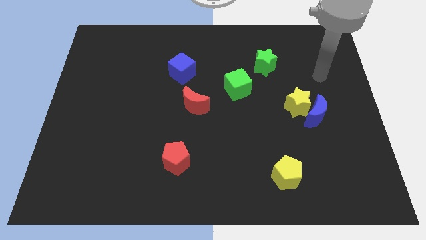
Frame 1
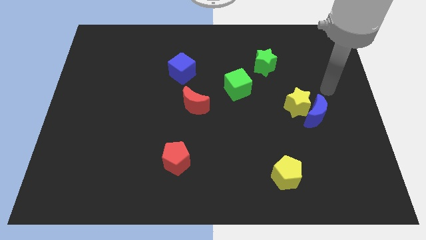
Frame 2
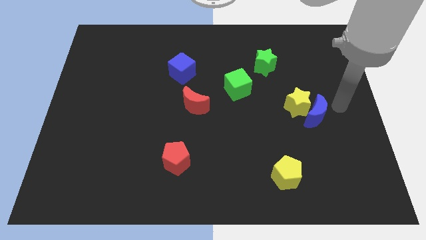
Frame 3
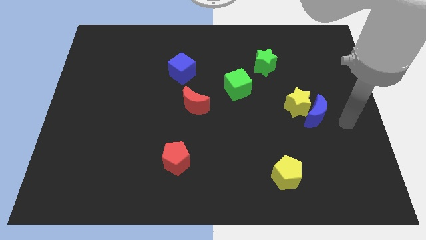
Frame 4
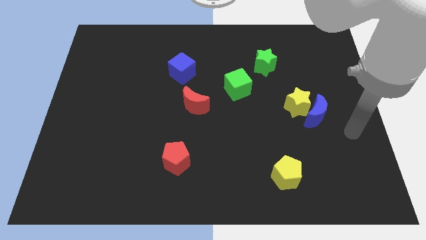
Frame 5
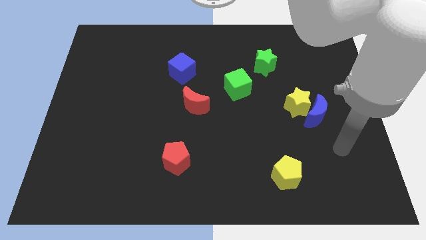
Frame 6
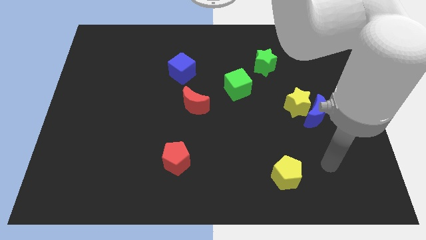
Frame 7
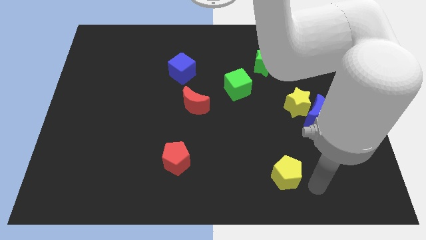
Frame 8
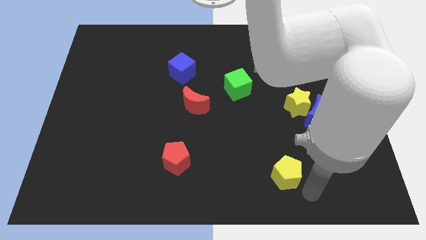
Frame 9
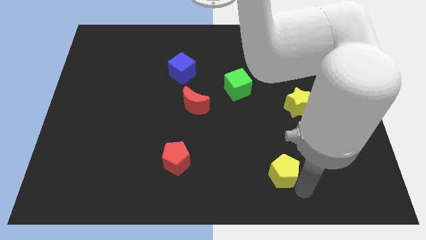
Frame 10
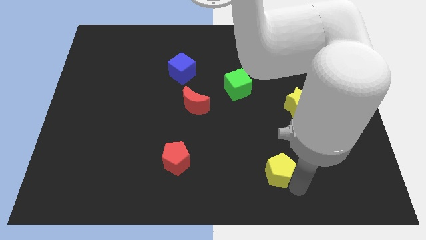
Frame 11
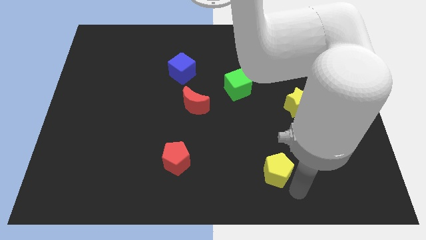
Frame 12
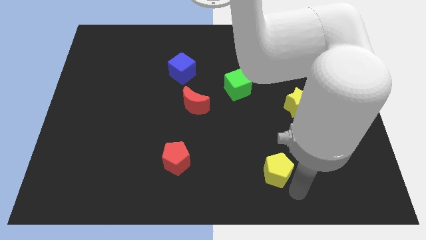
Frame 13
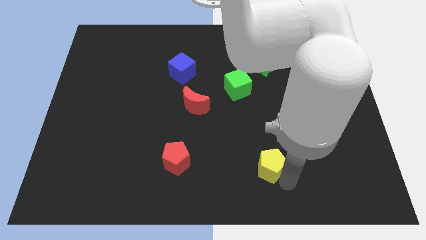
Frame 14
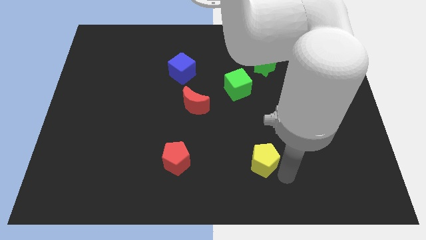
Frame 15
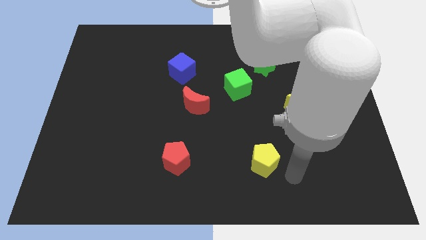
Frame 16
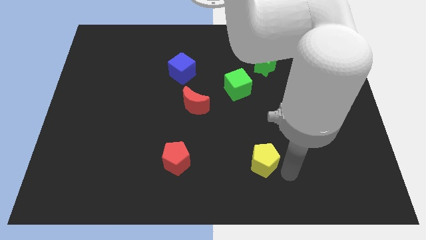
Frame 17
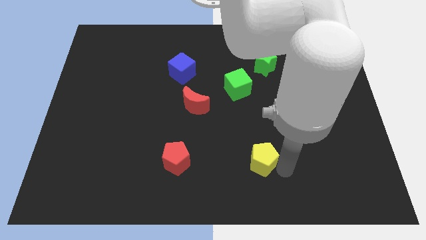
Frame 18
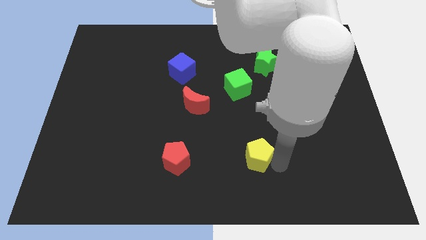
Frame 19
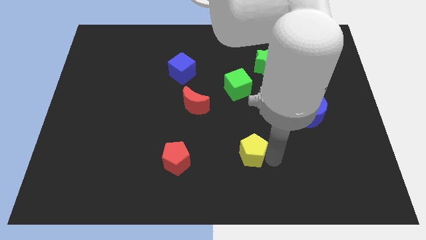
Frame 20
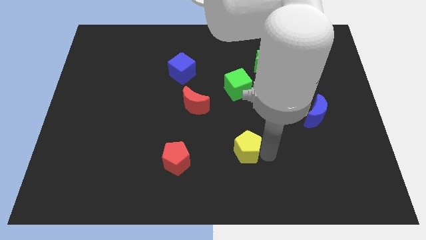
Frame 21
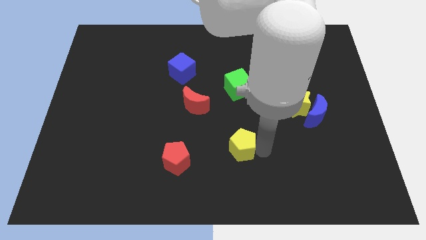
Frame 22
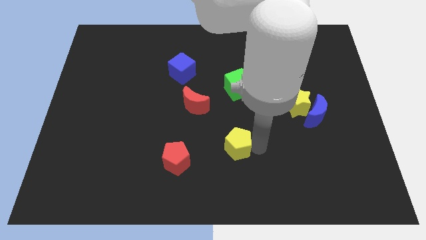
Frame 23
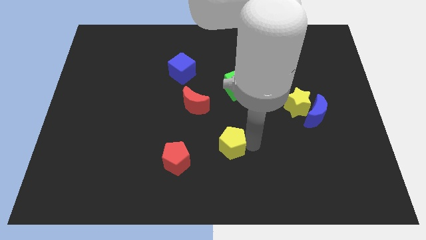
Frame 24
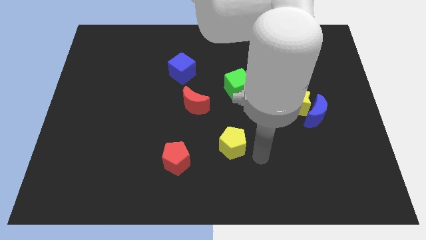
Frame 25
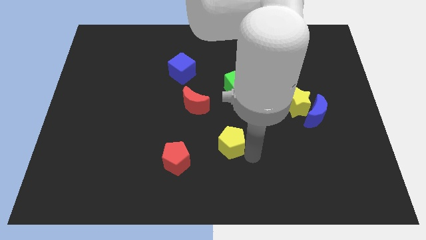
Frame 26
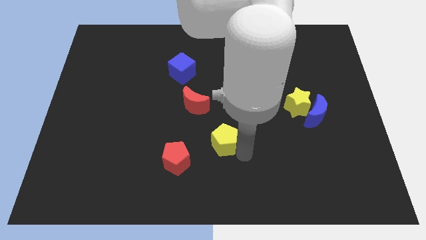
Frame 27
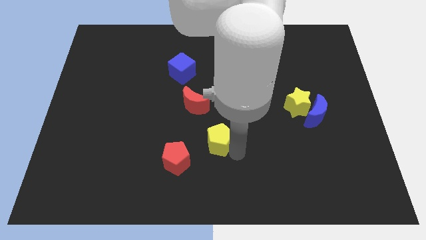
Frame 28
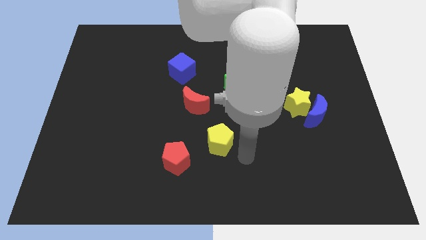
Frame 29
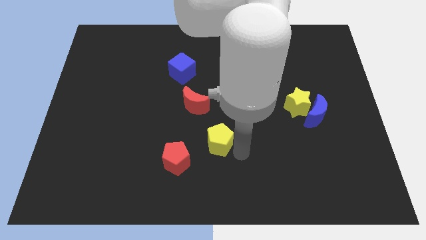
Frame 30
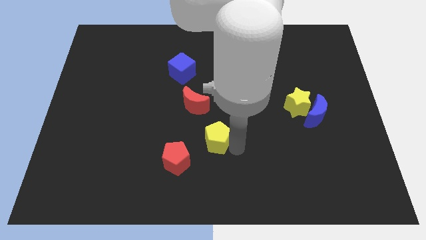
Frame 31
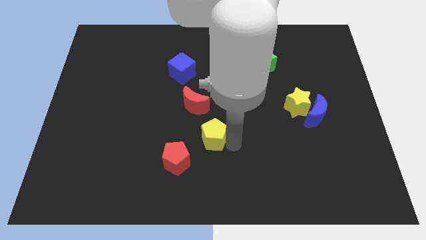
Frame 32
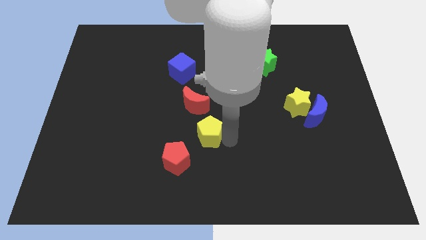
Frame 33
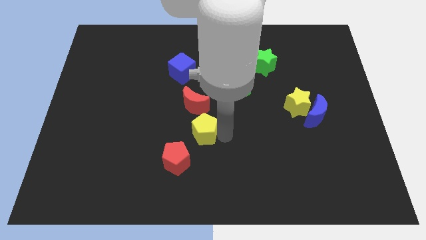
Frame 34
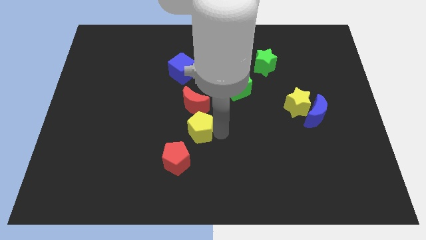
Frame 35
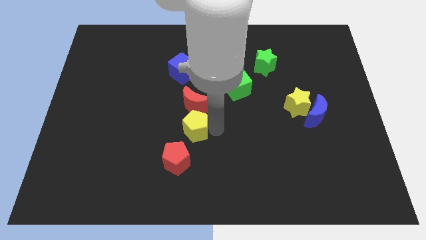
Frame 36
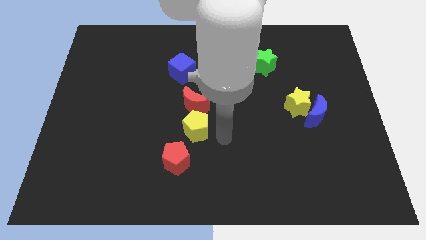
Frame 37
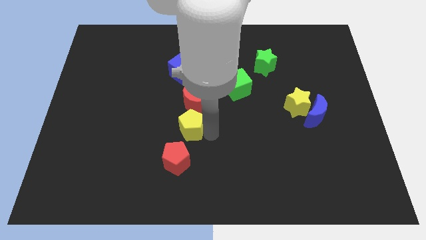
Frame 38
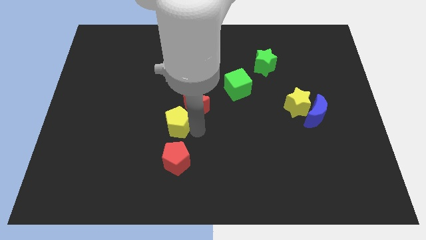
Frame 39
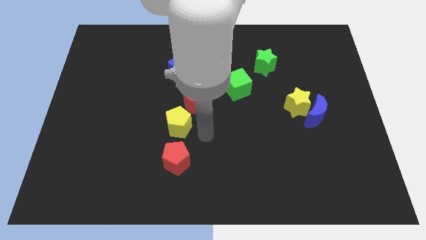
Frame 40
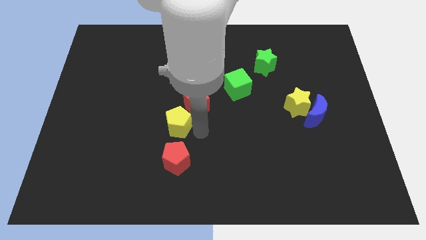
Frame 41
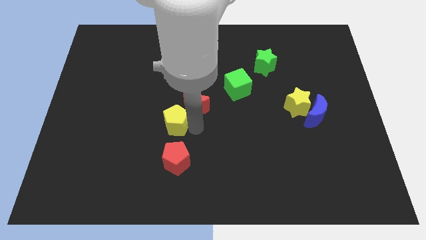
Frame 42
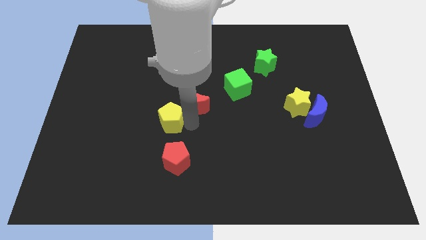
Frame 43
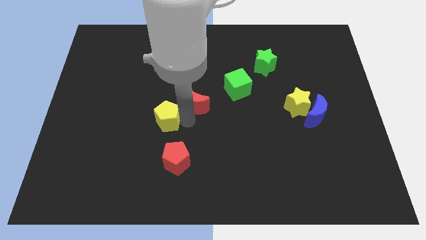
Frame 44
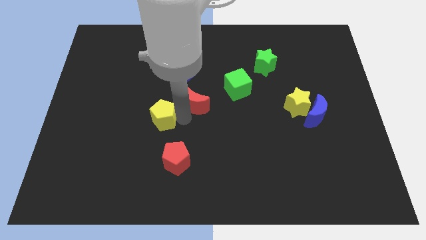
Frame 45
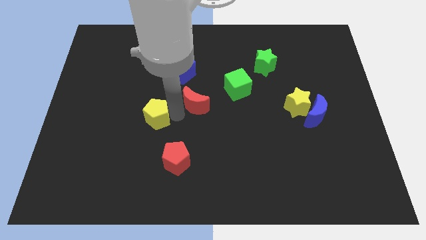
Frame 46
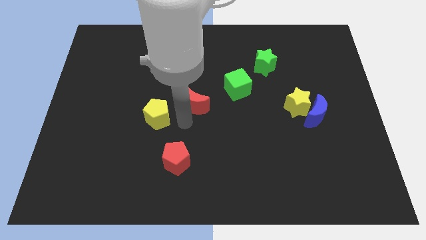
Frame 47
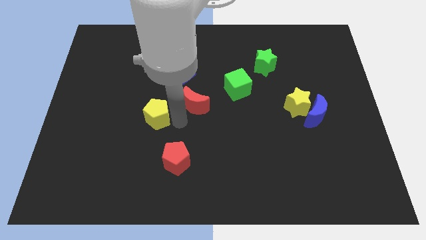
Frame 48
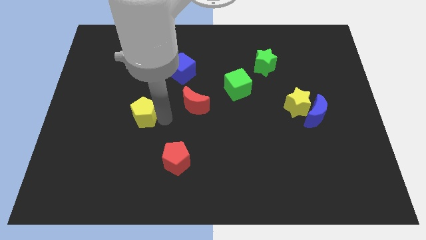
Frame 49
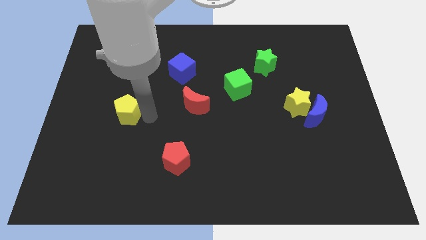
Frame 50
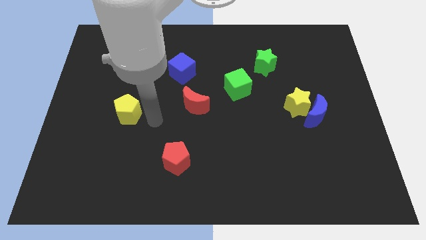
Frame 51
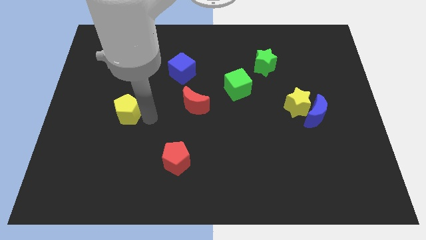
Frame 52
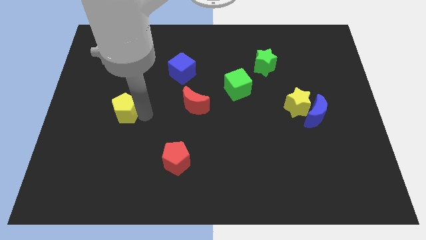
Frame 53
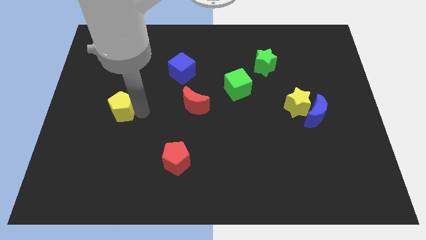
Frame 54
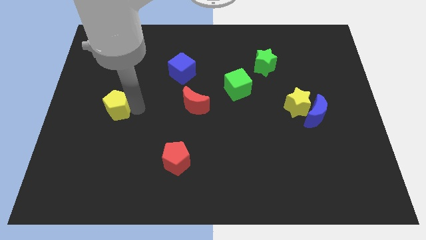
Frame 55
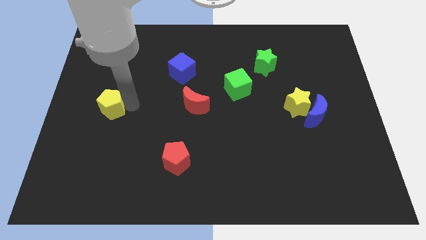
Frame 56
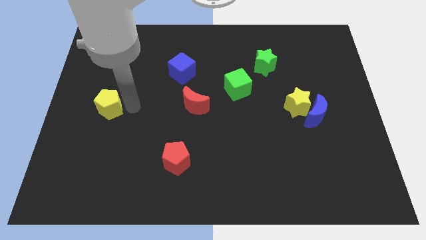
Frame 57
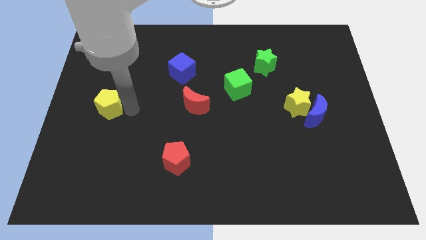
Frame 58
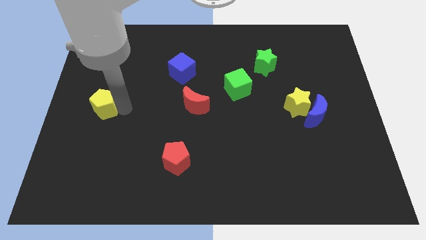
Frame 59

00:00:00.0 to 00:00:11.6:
push the yellow pentagon to the left side
